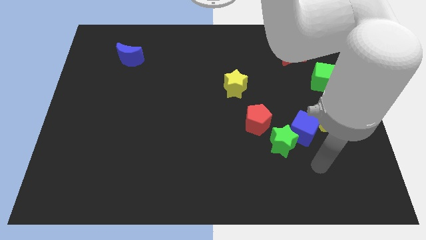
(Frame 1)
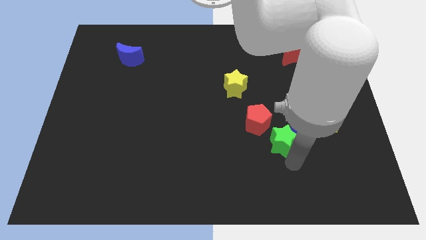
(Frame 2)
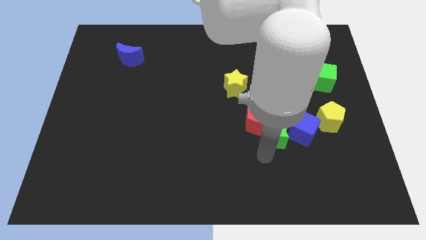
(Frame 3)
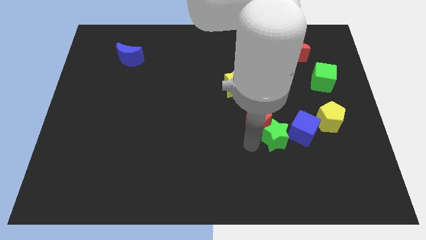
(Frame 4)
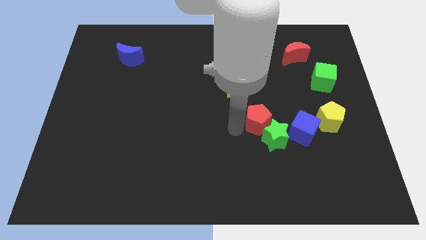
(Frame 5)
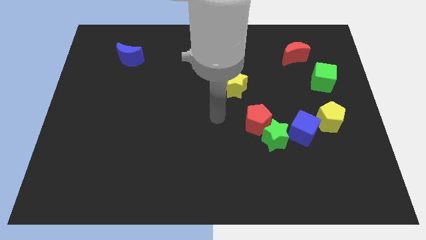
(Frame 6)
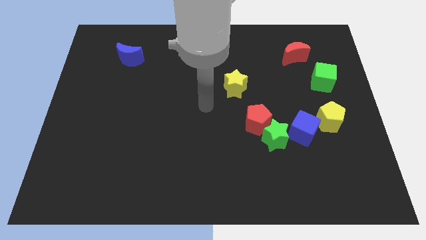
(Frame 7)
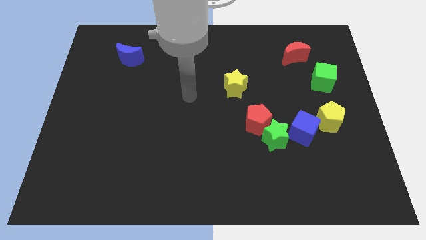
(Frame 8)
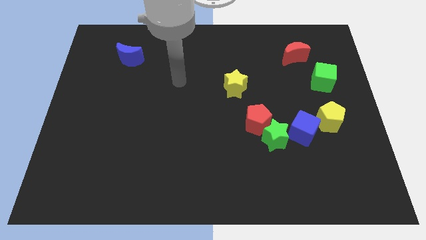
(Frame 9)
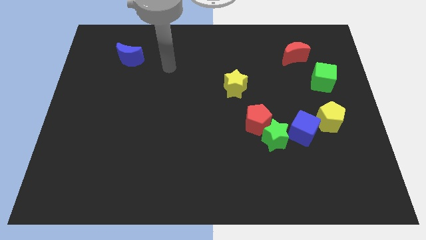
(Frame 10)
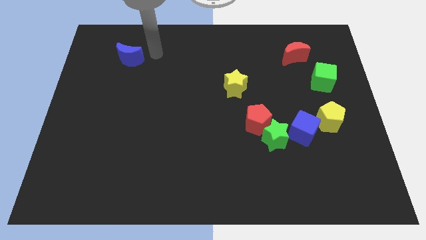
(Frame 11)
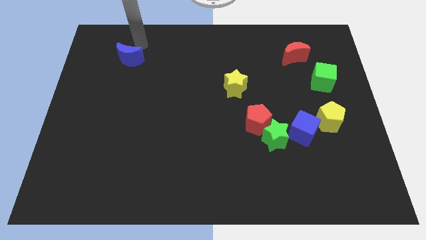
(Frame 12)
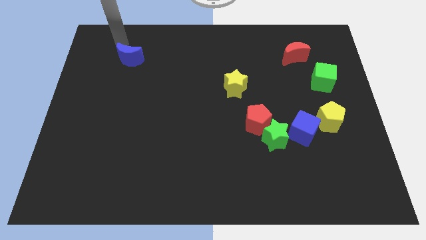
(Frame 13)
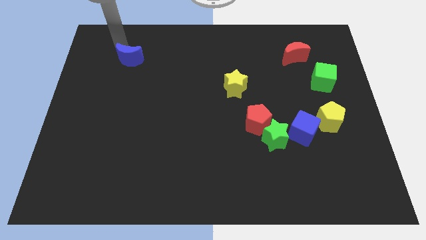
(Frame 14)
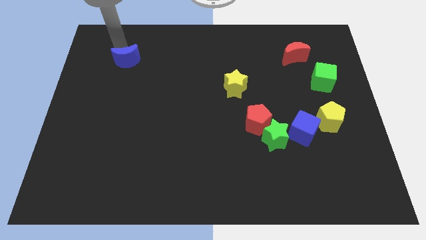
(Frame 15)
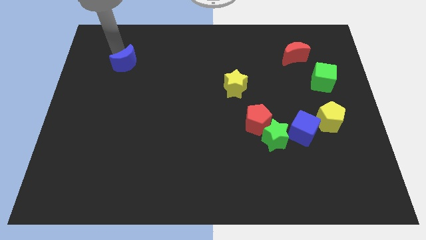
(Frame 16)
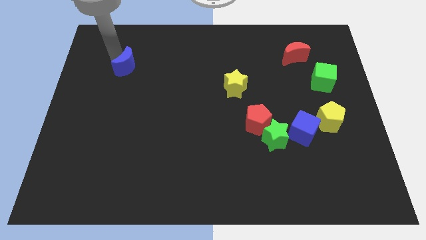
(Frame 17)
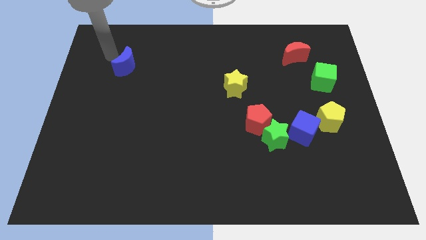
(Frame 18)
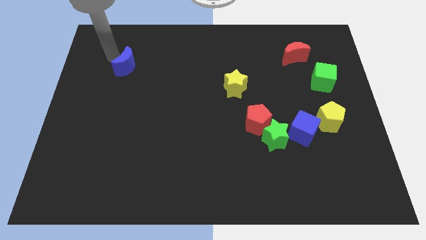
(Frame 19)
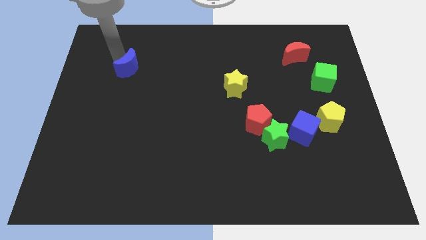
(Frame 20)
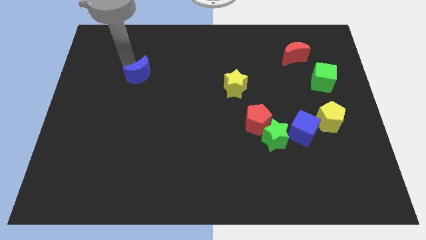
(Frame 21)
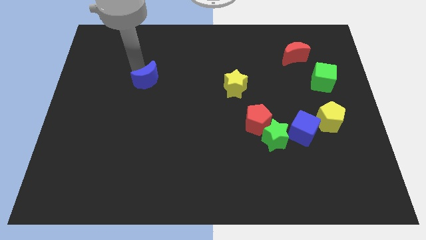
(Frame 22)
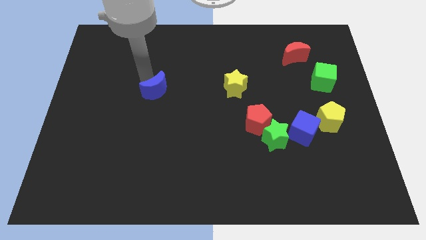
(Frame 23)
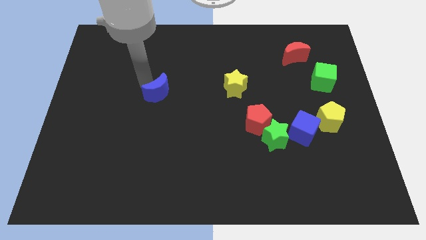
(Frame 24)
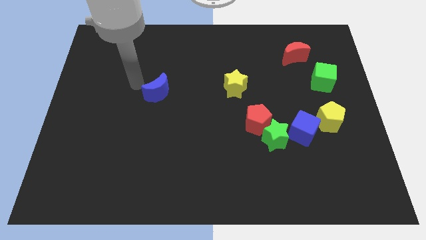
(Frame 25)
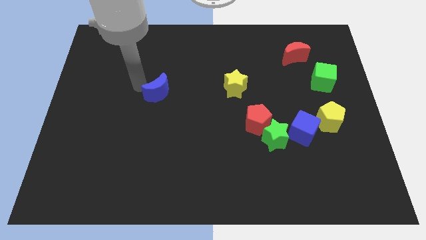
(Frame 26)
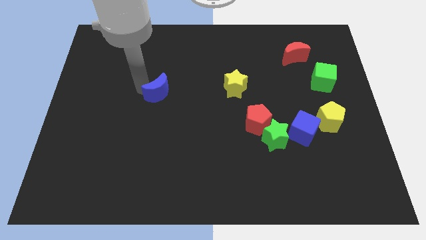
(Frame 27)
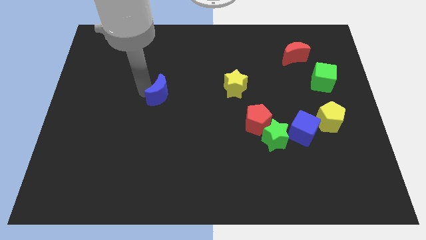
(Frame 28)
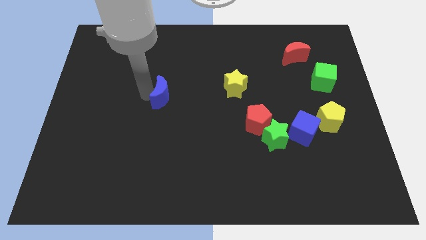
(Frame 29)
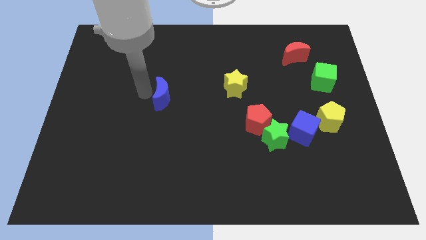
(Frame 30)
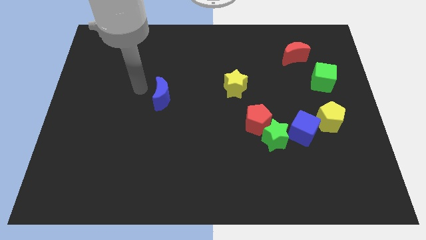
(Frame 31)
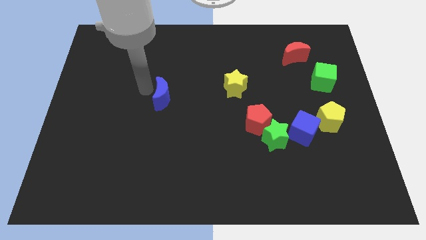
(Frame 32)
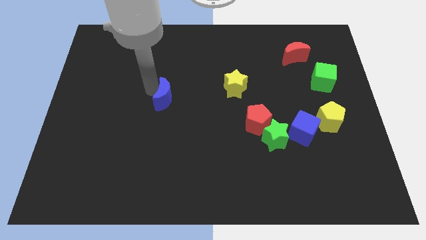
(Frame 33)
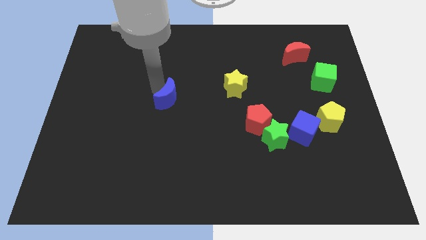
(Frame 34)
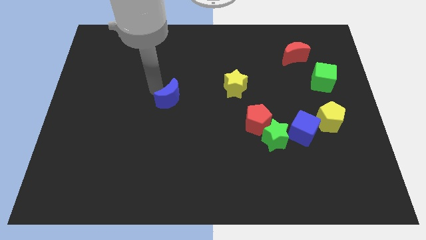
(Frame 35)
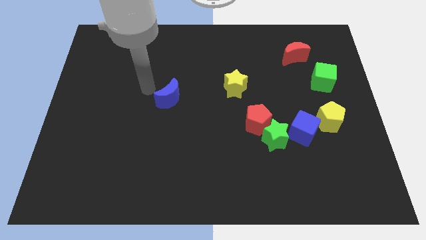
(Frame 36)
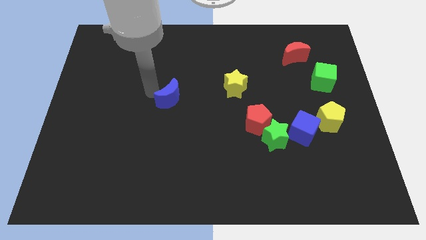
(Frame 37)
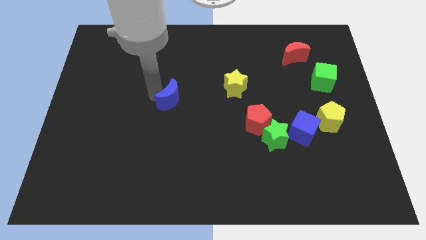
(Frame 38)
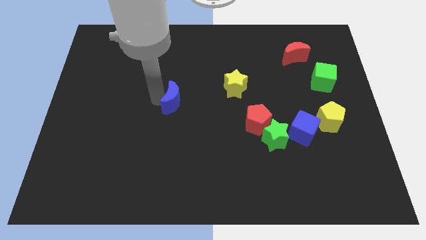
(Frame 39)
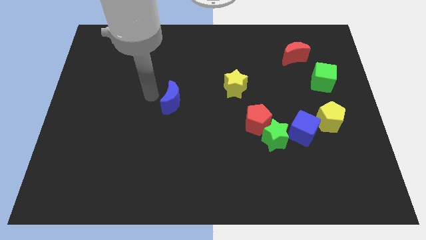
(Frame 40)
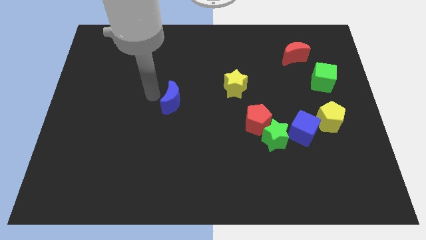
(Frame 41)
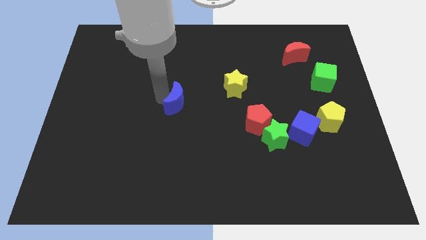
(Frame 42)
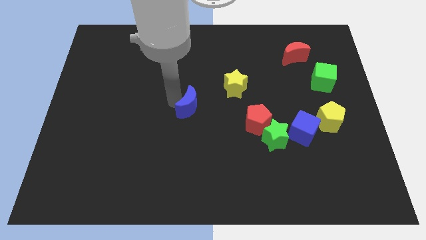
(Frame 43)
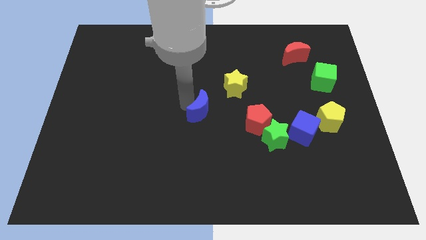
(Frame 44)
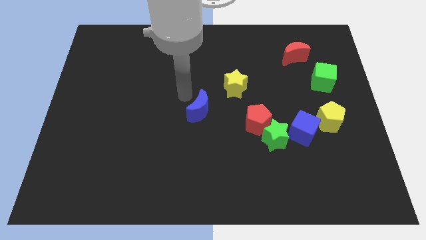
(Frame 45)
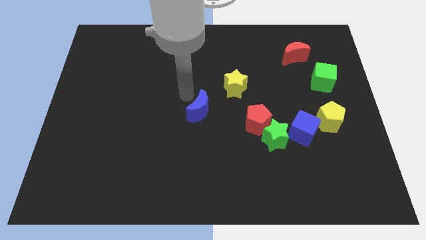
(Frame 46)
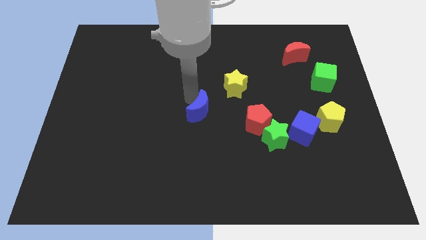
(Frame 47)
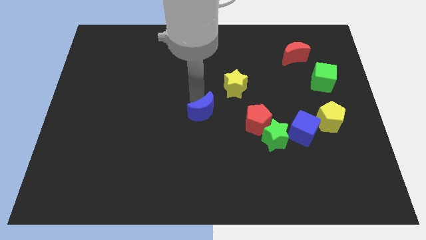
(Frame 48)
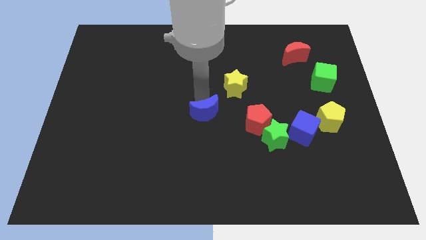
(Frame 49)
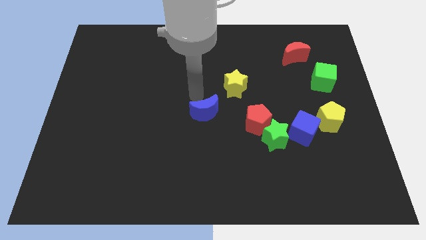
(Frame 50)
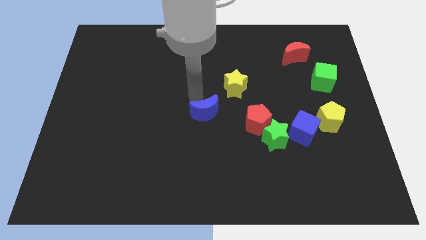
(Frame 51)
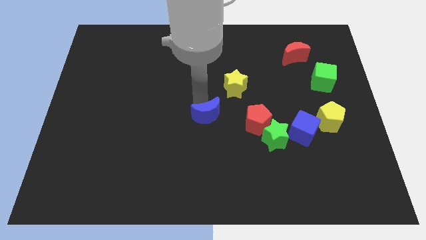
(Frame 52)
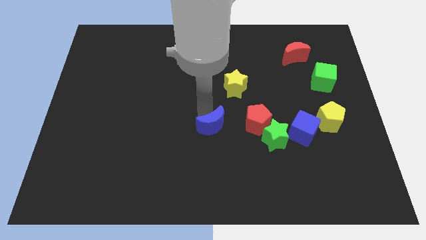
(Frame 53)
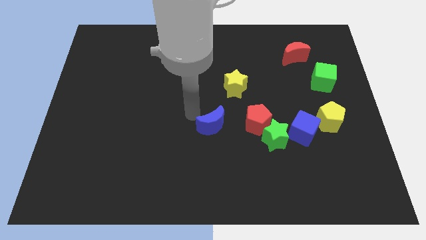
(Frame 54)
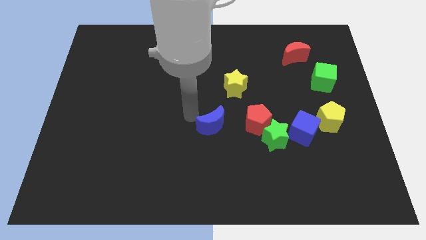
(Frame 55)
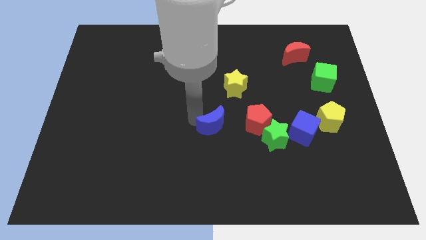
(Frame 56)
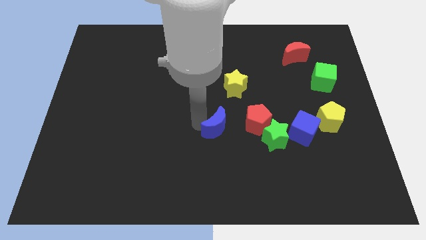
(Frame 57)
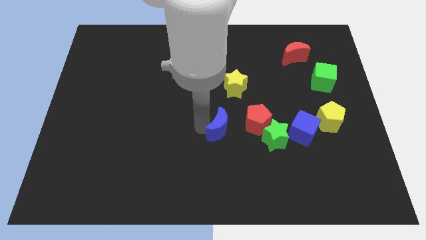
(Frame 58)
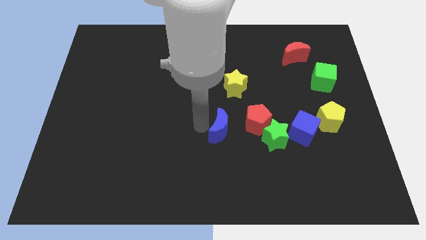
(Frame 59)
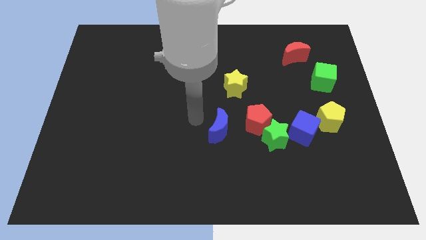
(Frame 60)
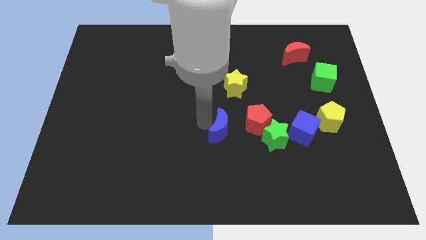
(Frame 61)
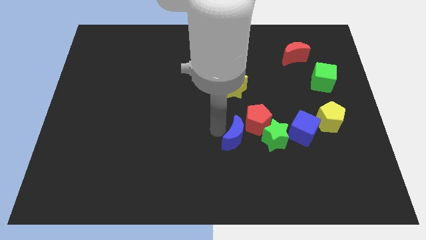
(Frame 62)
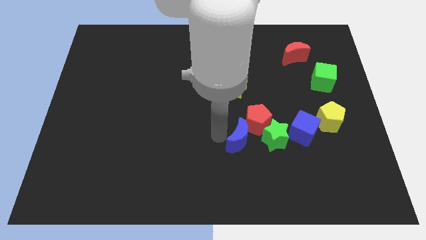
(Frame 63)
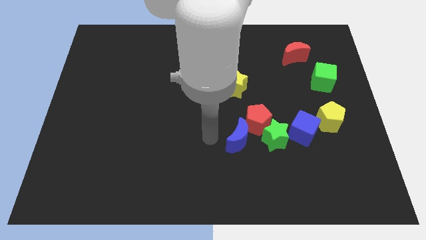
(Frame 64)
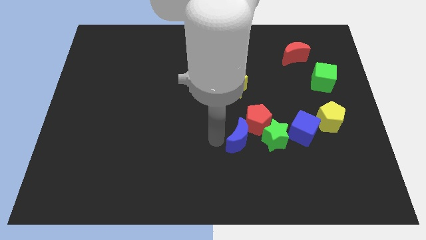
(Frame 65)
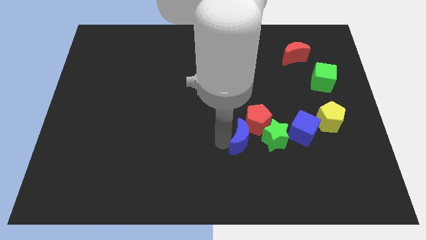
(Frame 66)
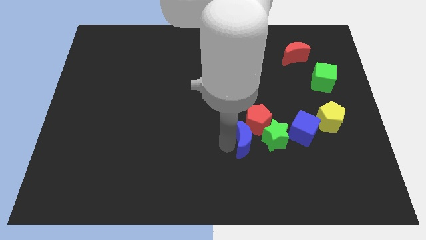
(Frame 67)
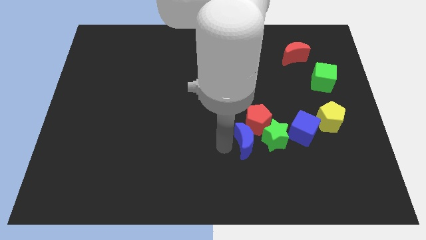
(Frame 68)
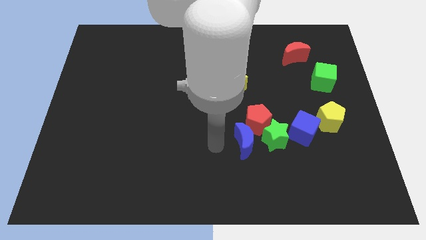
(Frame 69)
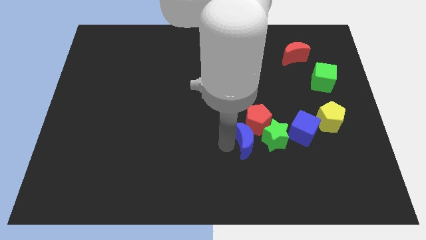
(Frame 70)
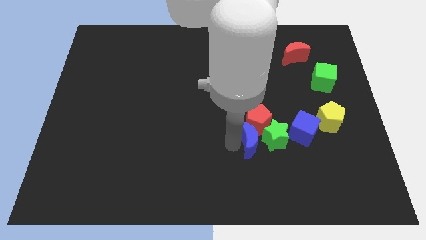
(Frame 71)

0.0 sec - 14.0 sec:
slide the blue moon to the green star

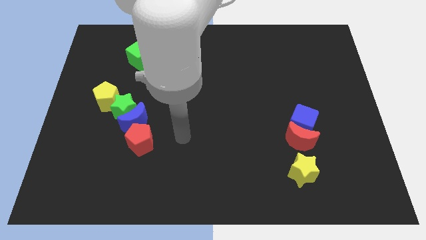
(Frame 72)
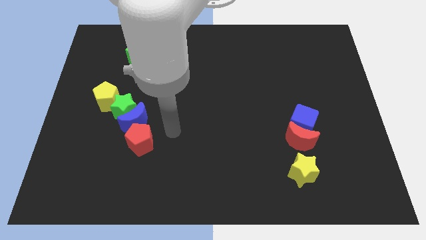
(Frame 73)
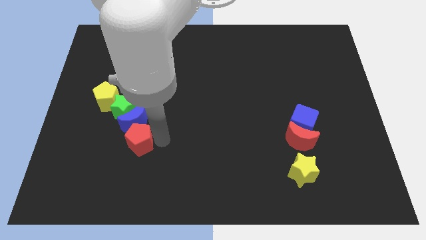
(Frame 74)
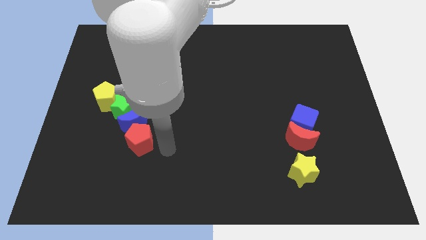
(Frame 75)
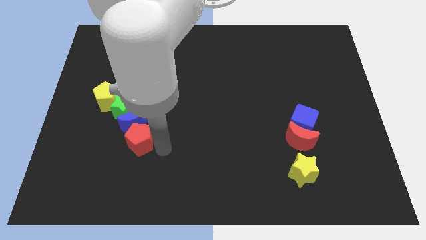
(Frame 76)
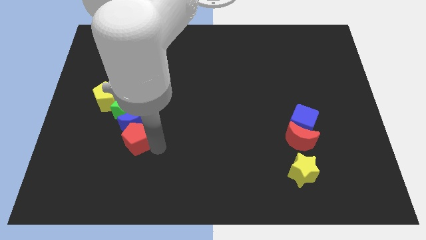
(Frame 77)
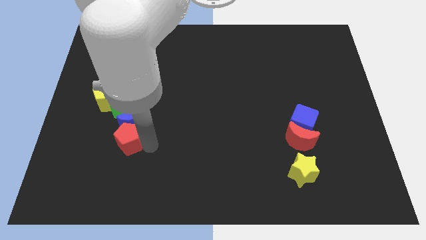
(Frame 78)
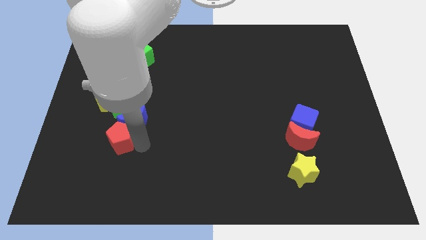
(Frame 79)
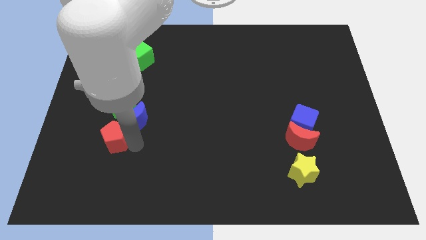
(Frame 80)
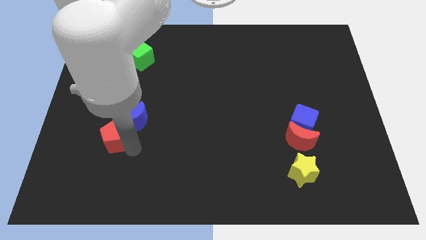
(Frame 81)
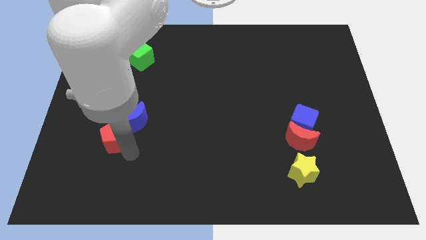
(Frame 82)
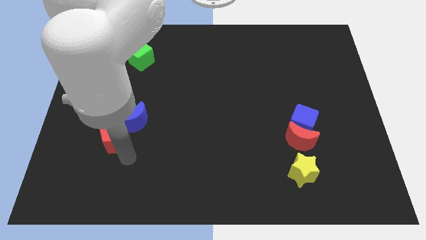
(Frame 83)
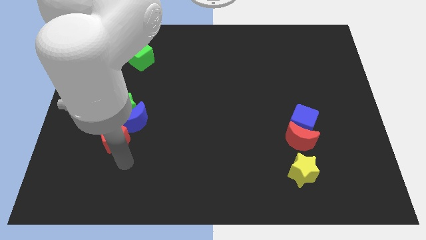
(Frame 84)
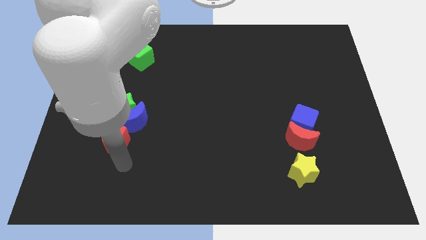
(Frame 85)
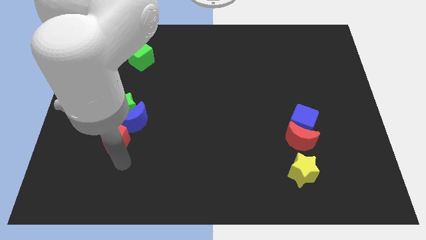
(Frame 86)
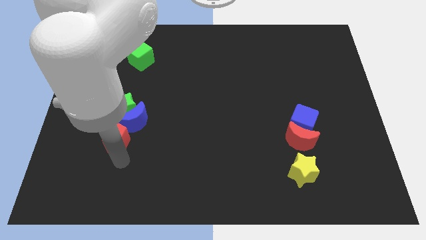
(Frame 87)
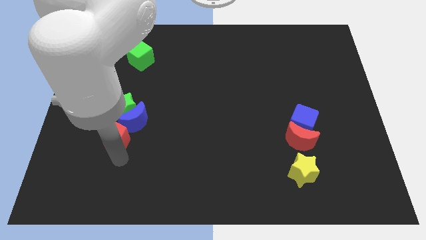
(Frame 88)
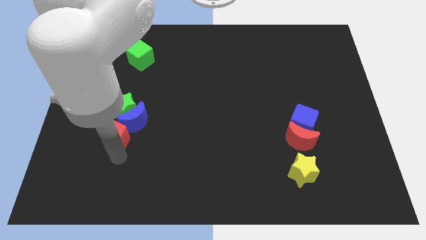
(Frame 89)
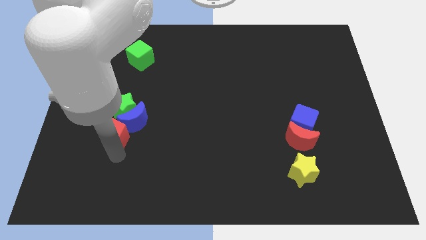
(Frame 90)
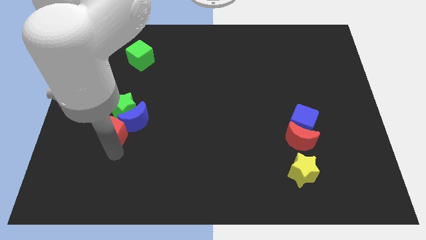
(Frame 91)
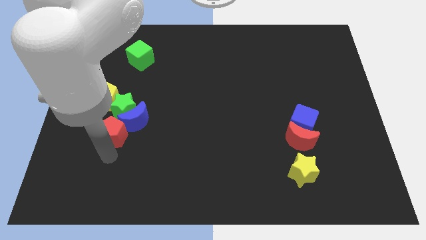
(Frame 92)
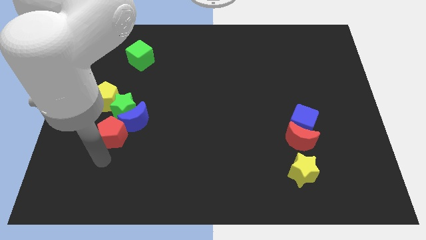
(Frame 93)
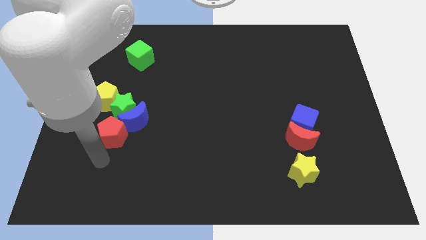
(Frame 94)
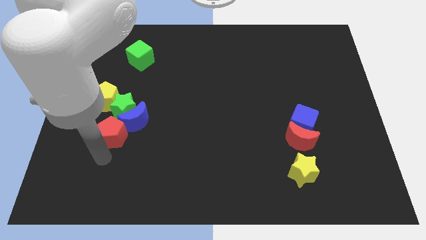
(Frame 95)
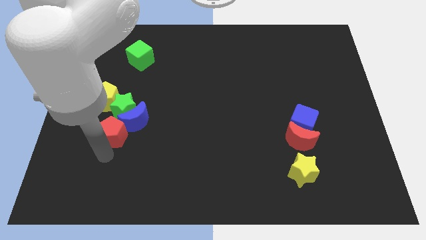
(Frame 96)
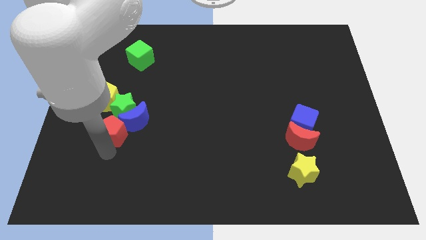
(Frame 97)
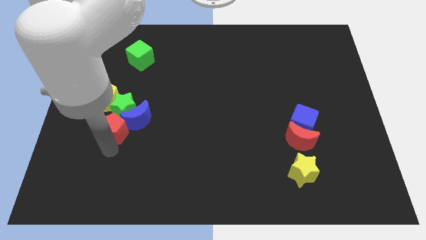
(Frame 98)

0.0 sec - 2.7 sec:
slide the red pentagon towards the green star
